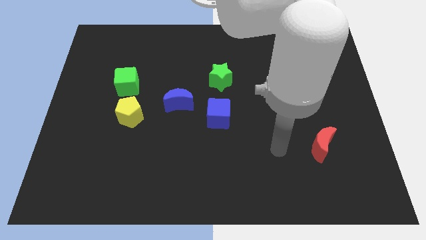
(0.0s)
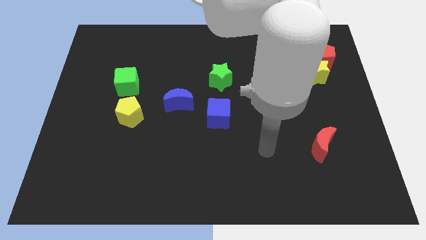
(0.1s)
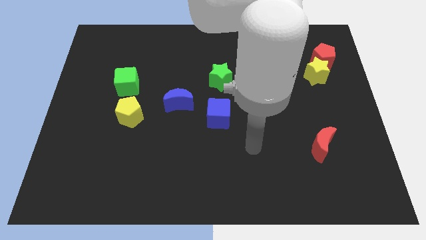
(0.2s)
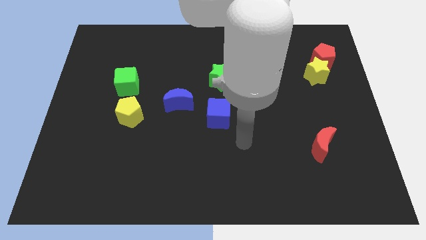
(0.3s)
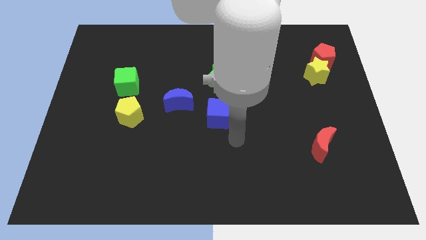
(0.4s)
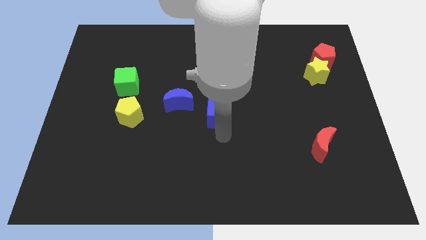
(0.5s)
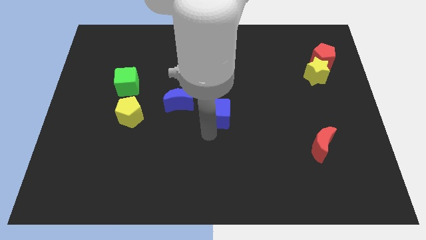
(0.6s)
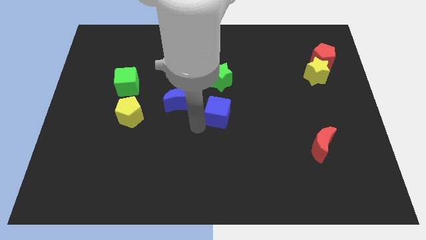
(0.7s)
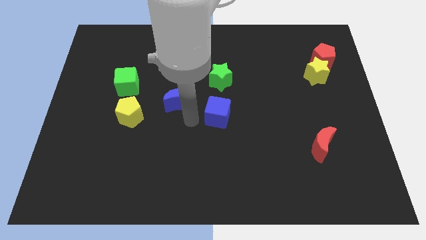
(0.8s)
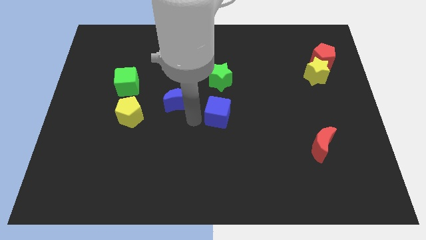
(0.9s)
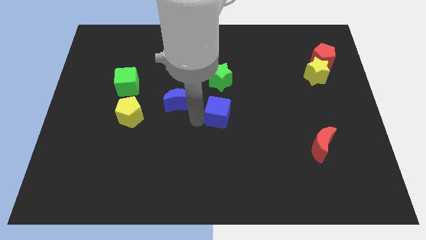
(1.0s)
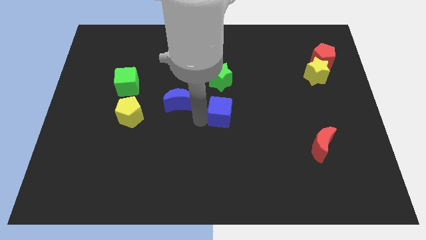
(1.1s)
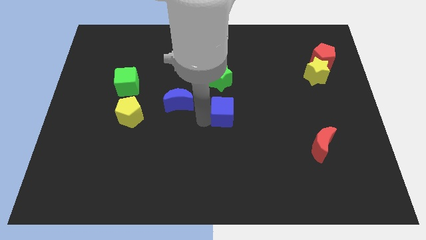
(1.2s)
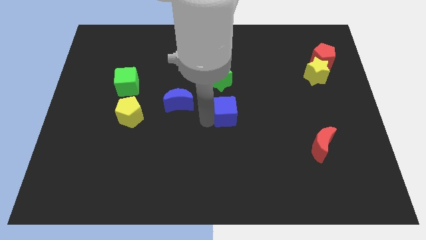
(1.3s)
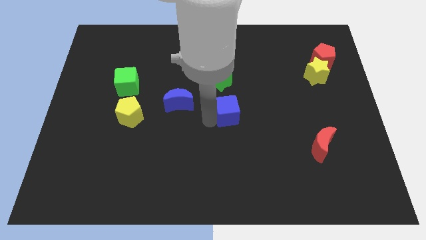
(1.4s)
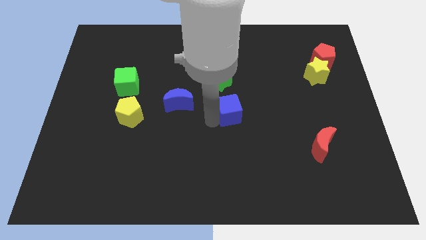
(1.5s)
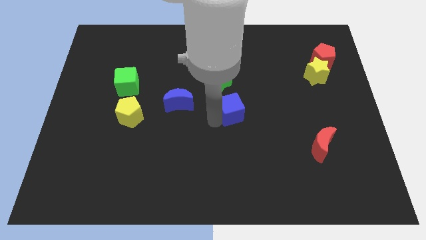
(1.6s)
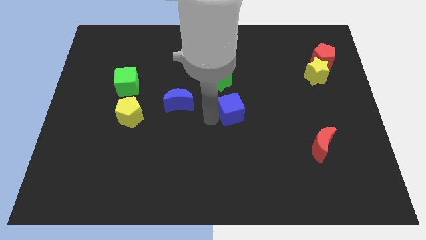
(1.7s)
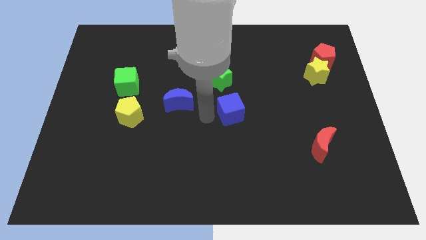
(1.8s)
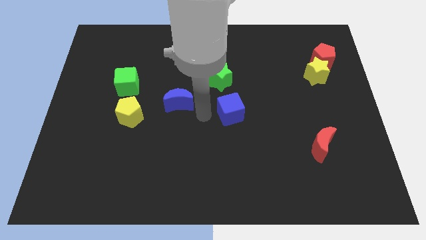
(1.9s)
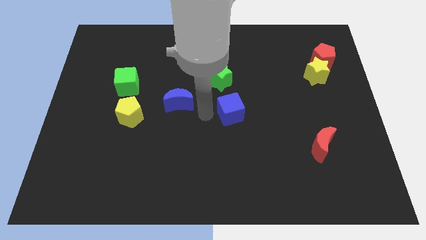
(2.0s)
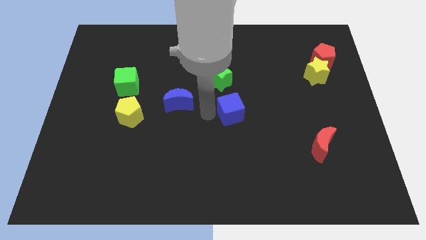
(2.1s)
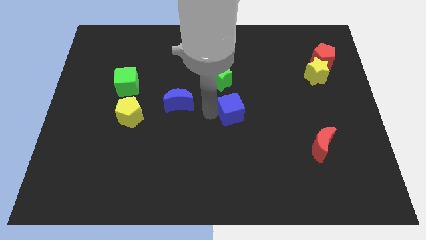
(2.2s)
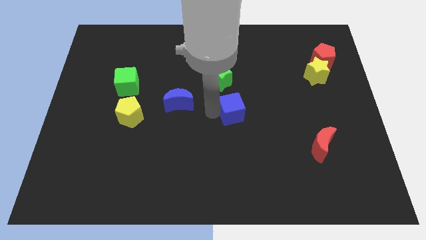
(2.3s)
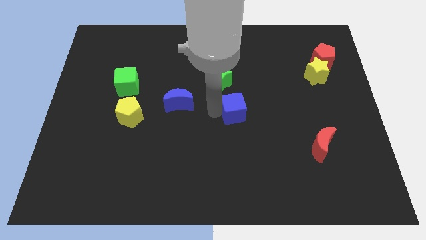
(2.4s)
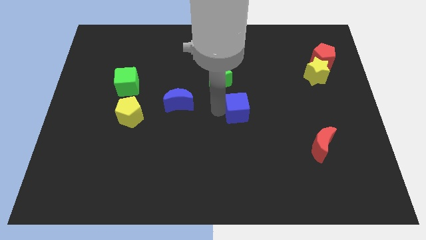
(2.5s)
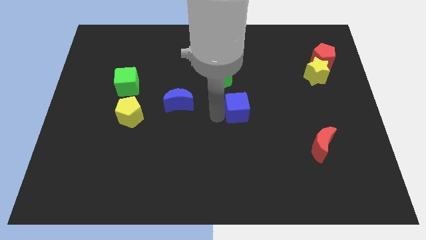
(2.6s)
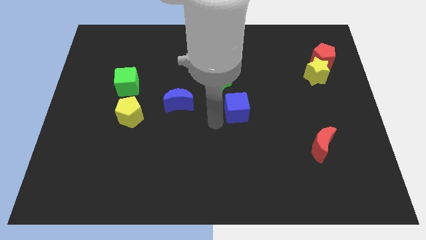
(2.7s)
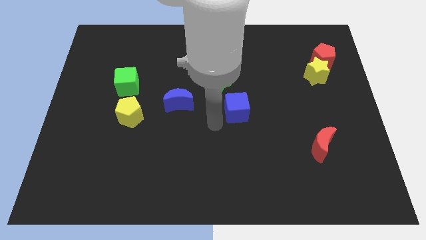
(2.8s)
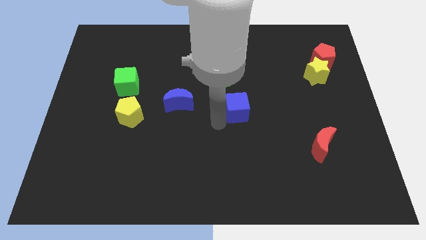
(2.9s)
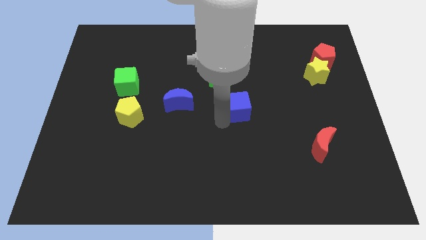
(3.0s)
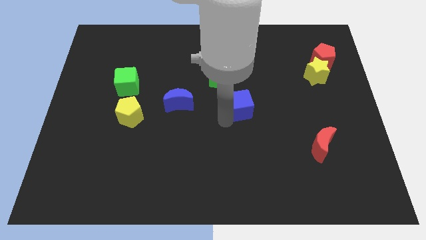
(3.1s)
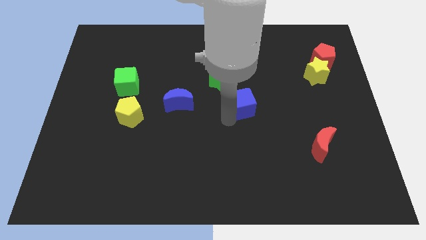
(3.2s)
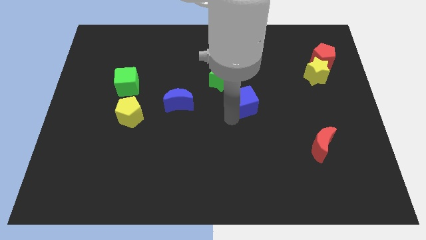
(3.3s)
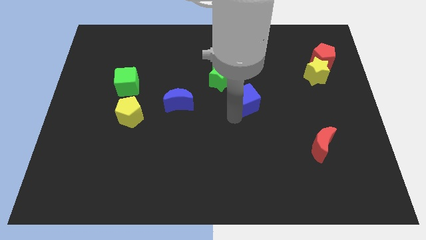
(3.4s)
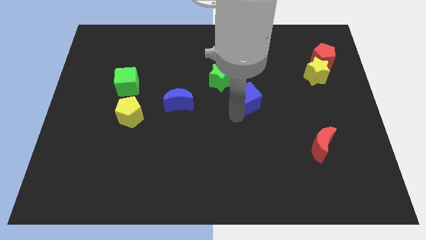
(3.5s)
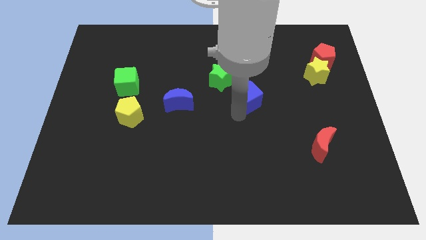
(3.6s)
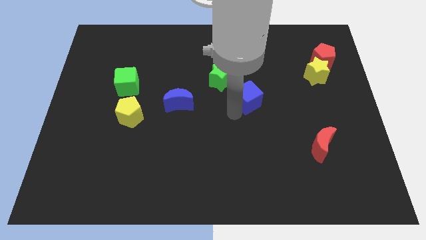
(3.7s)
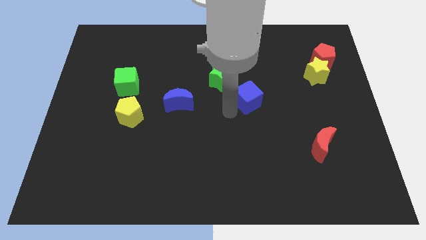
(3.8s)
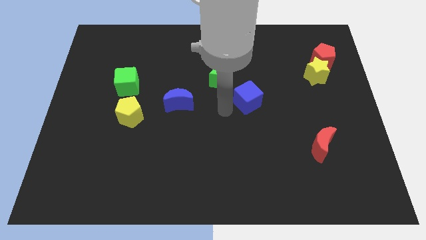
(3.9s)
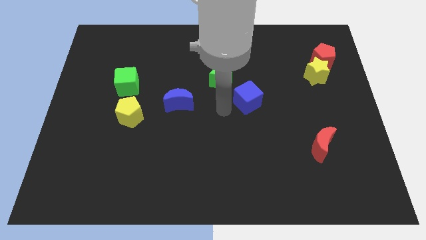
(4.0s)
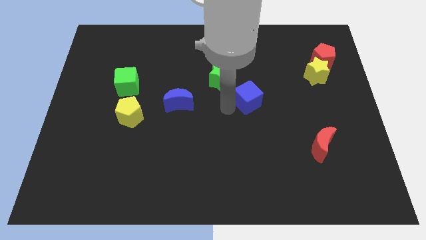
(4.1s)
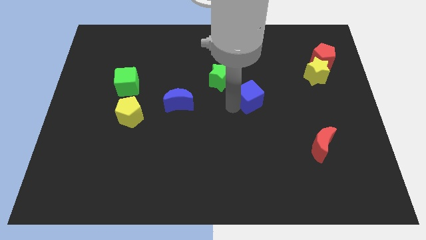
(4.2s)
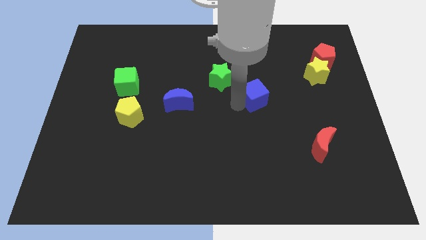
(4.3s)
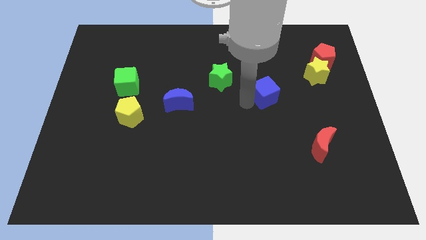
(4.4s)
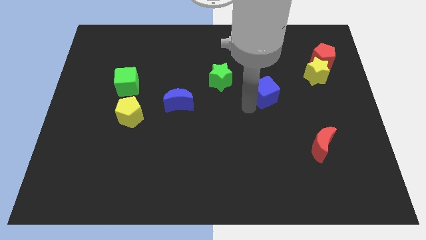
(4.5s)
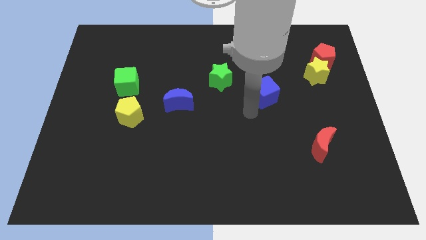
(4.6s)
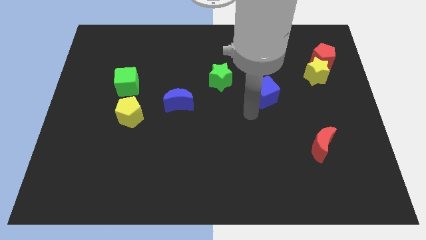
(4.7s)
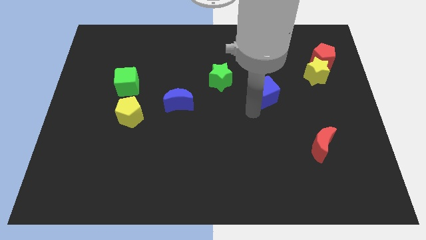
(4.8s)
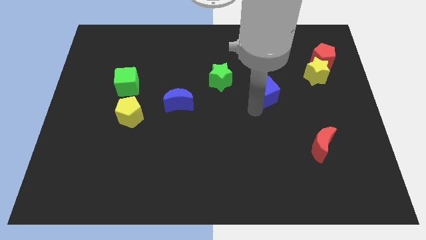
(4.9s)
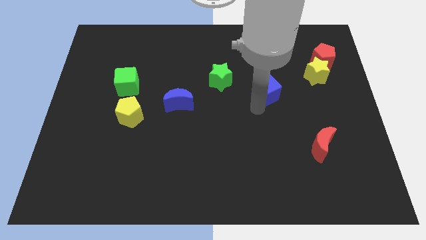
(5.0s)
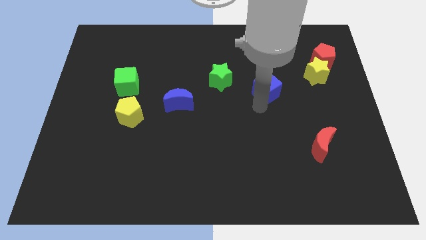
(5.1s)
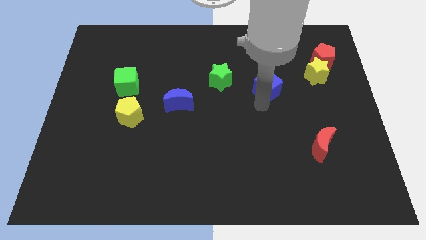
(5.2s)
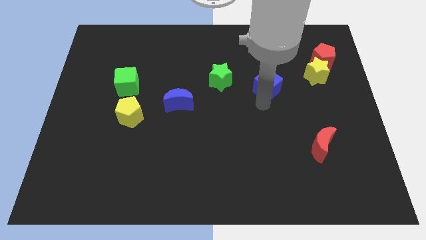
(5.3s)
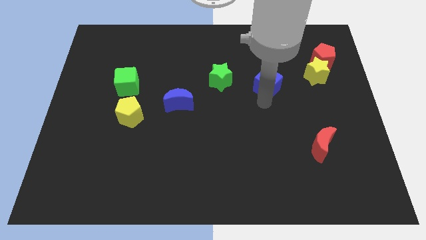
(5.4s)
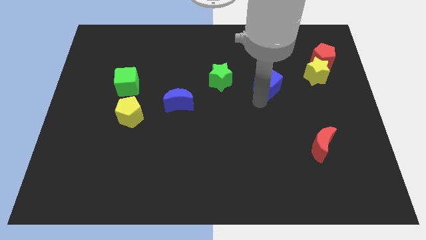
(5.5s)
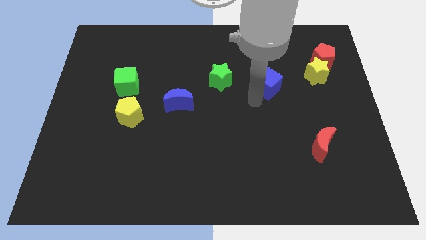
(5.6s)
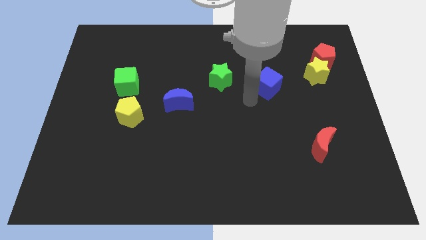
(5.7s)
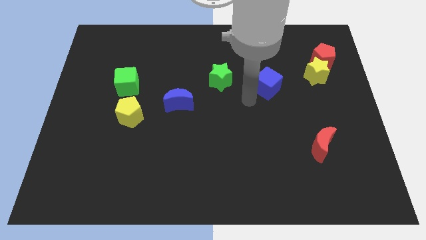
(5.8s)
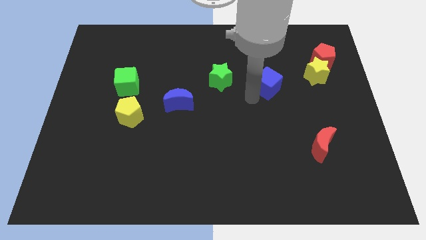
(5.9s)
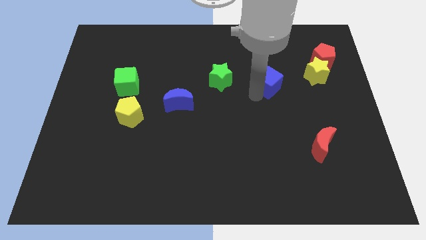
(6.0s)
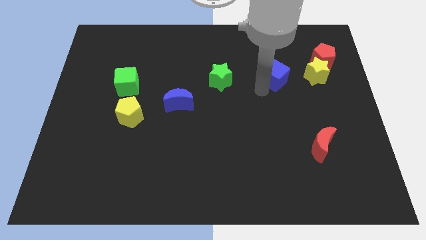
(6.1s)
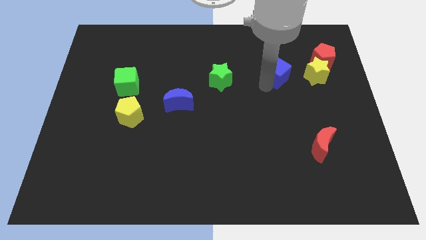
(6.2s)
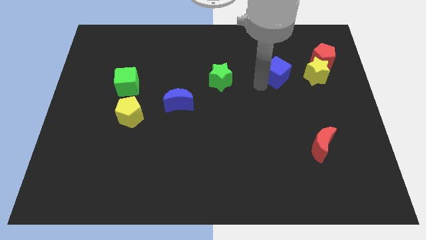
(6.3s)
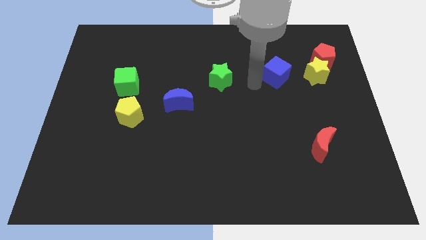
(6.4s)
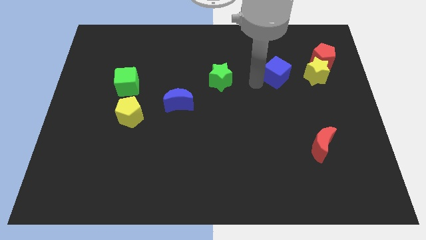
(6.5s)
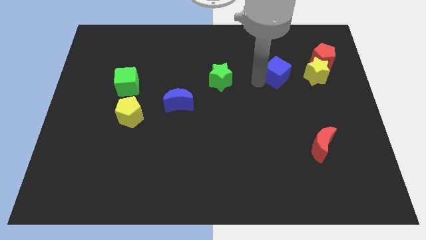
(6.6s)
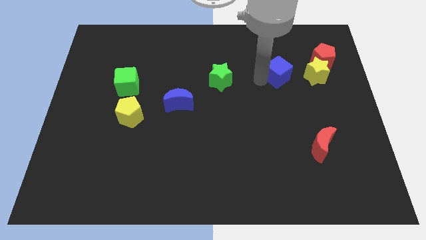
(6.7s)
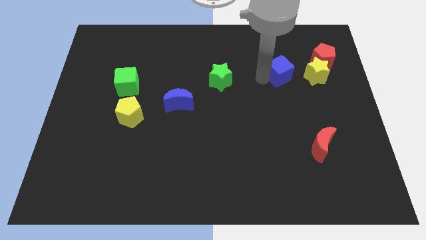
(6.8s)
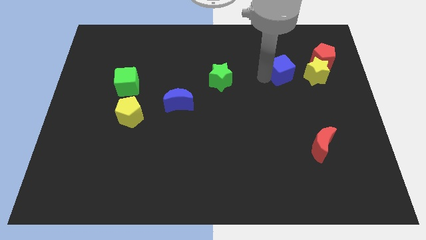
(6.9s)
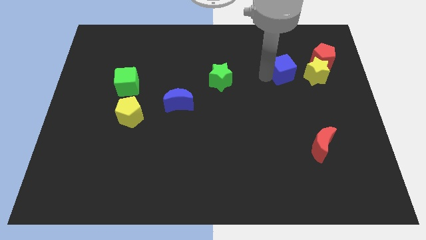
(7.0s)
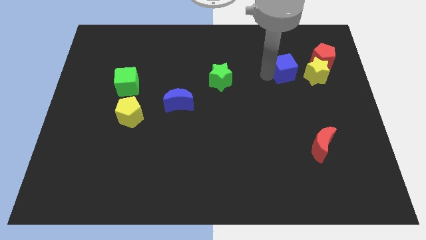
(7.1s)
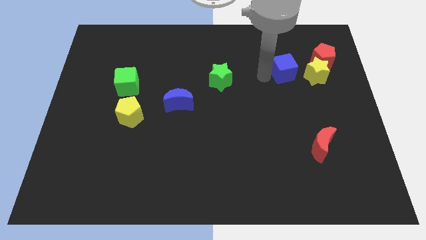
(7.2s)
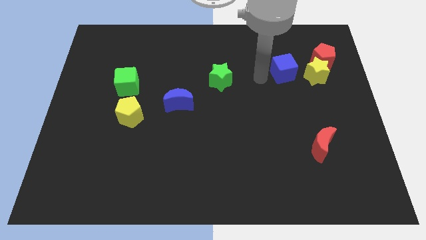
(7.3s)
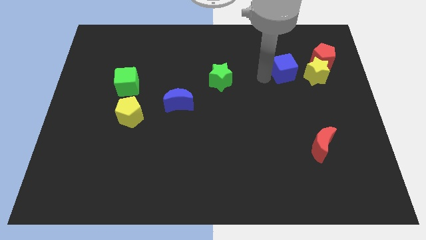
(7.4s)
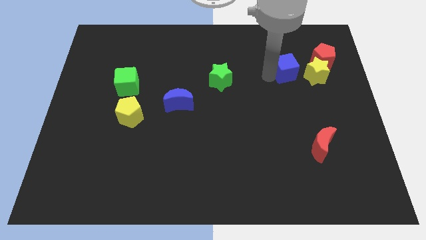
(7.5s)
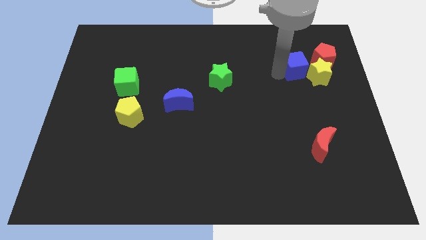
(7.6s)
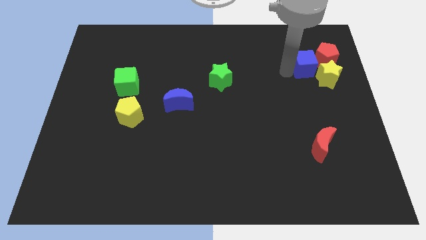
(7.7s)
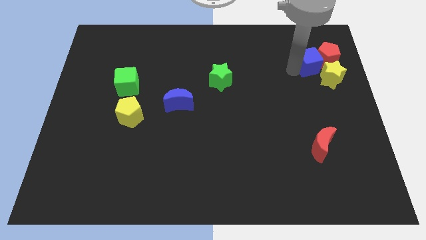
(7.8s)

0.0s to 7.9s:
push the blue cube to the red pentagon

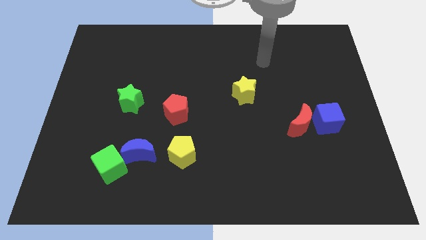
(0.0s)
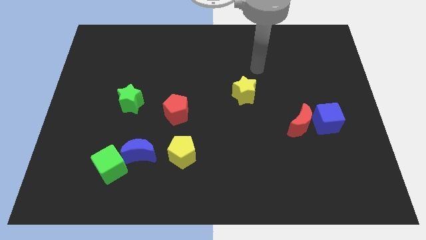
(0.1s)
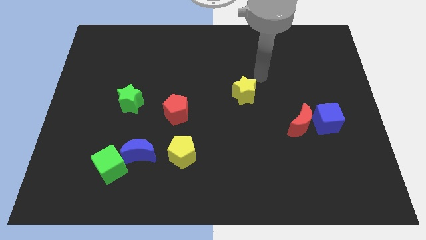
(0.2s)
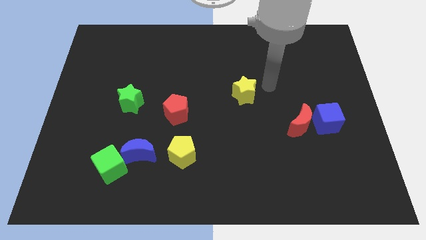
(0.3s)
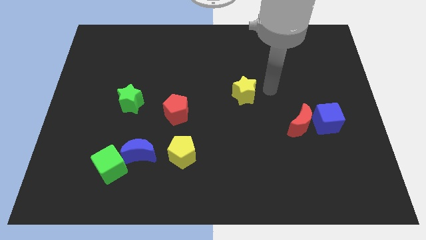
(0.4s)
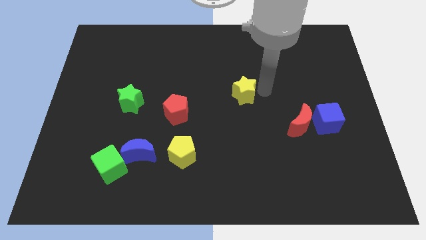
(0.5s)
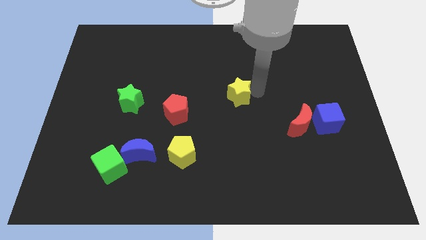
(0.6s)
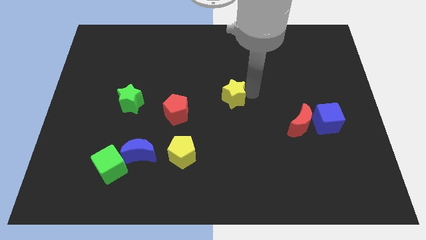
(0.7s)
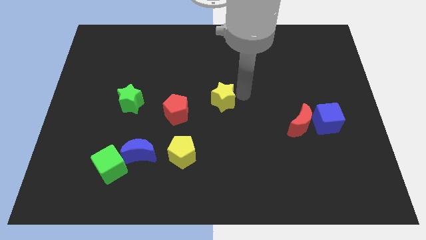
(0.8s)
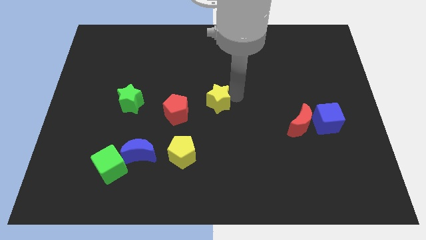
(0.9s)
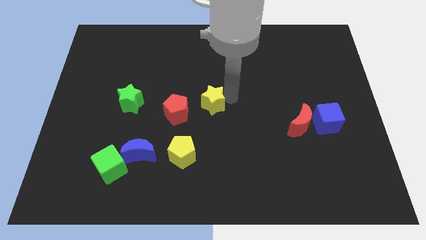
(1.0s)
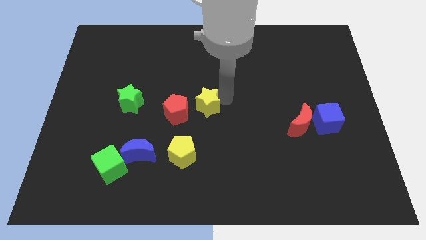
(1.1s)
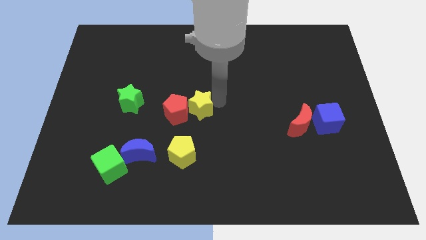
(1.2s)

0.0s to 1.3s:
push the yellow star to the red pentagon
